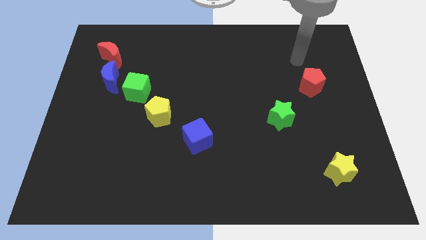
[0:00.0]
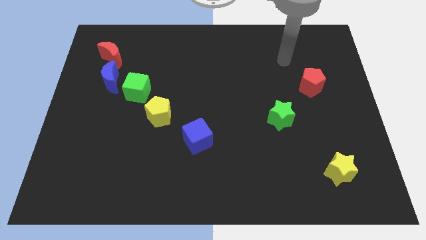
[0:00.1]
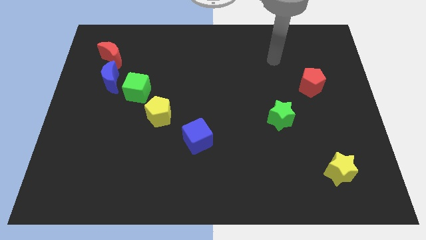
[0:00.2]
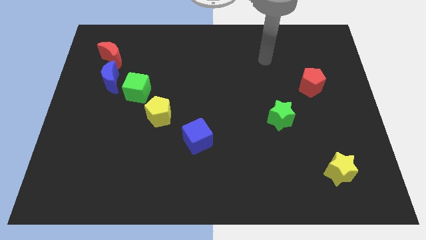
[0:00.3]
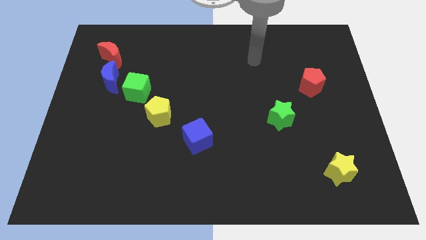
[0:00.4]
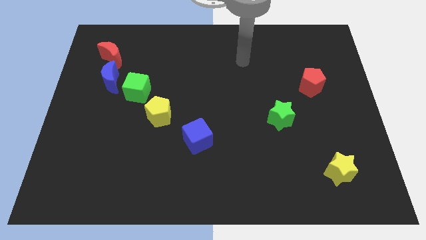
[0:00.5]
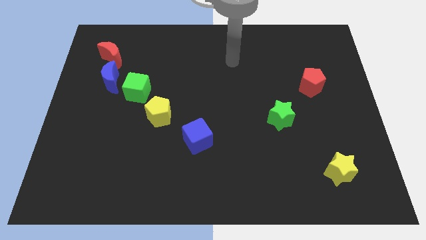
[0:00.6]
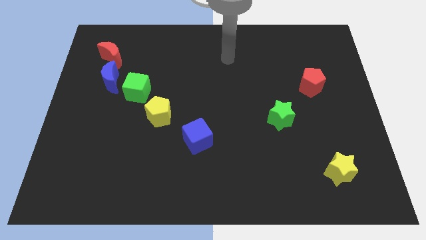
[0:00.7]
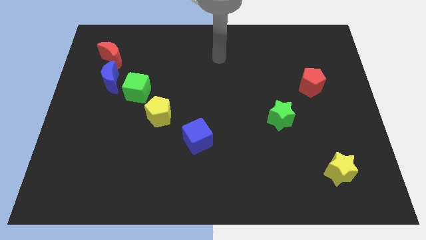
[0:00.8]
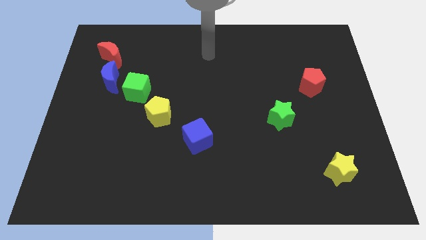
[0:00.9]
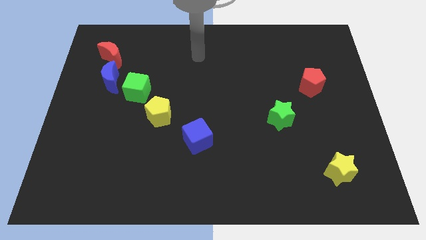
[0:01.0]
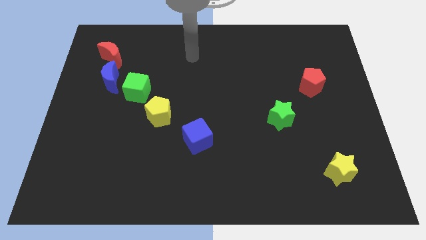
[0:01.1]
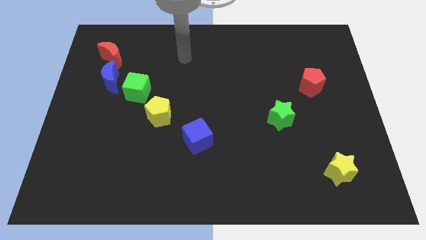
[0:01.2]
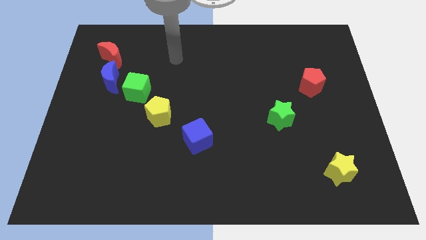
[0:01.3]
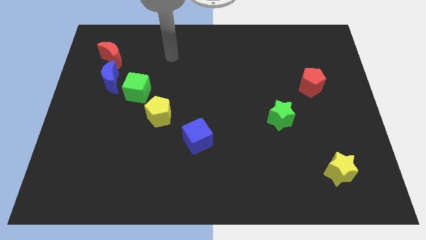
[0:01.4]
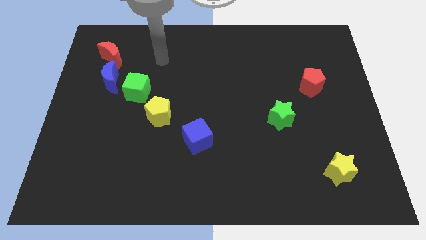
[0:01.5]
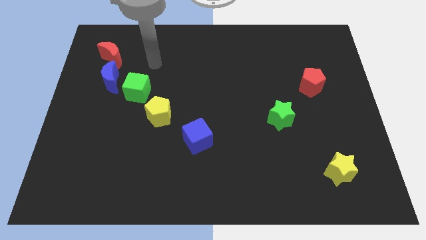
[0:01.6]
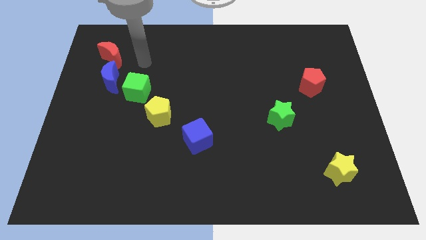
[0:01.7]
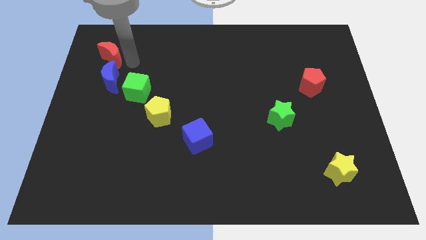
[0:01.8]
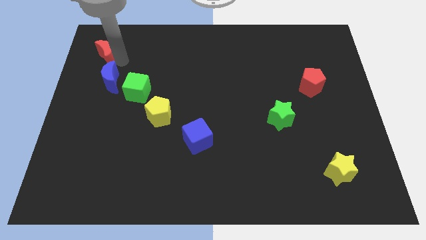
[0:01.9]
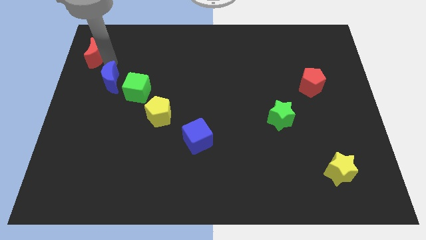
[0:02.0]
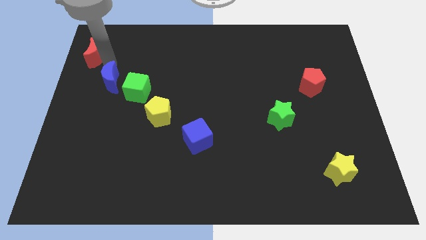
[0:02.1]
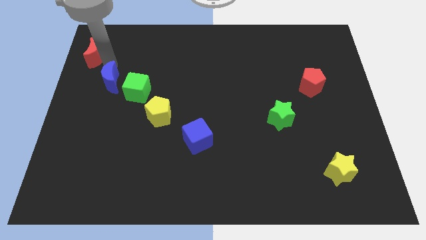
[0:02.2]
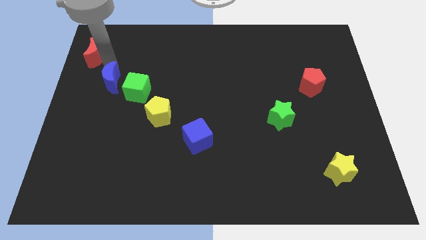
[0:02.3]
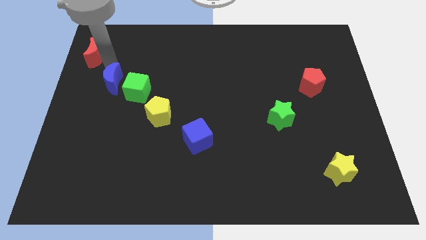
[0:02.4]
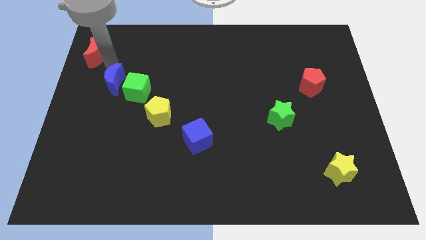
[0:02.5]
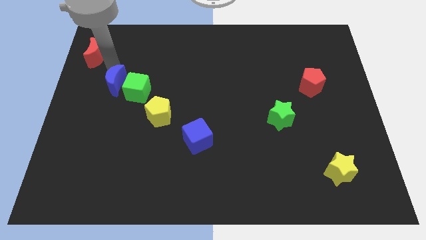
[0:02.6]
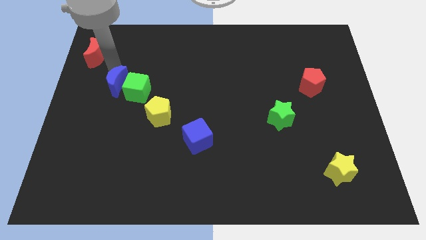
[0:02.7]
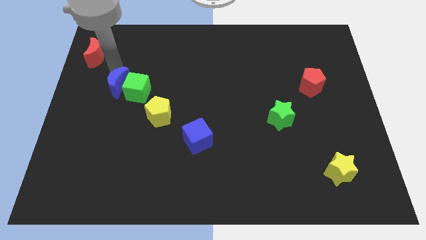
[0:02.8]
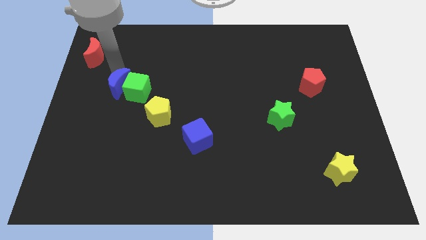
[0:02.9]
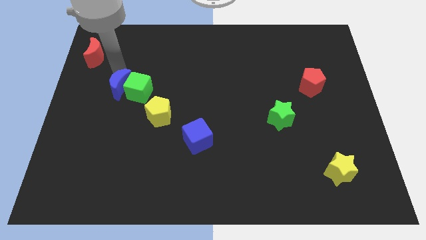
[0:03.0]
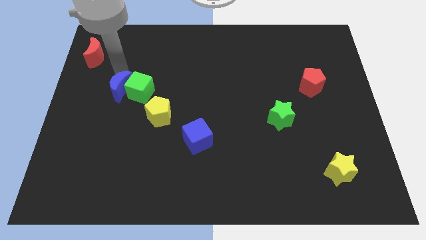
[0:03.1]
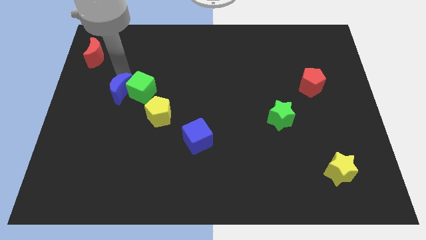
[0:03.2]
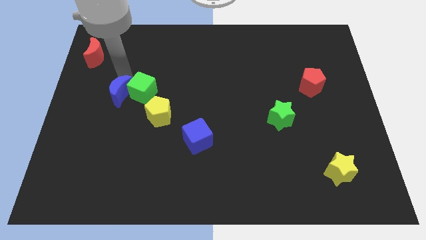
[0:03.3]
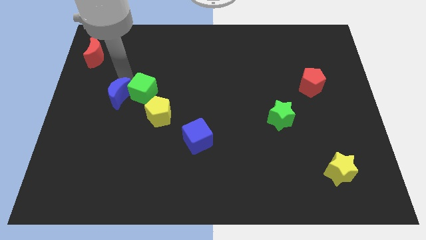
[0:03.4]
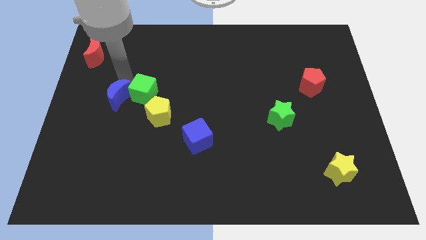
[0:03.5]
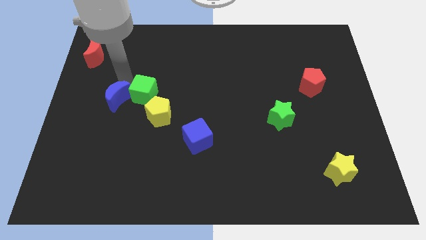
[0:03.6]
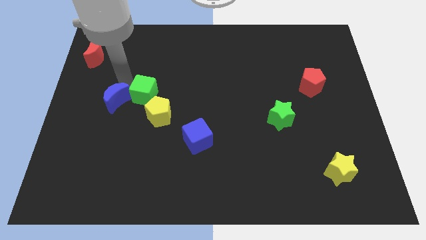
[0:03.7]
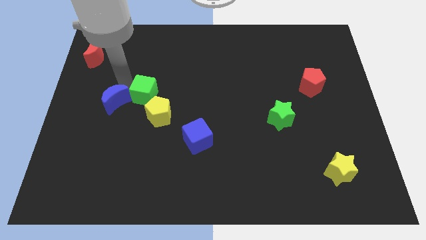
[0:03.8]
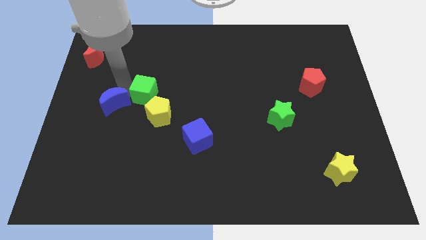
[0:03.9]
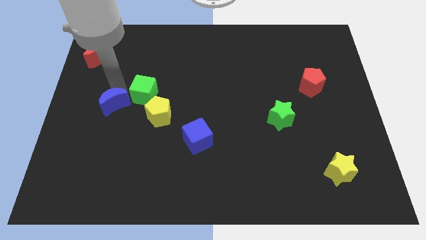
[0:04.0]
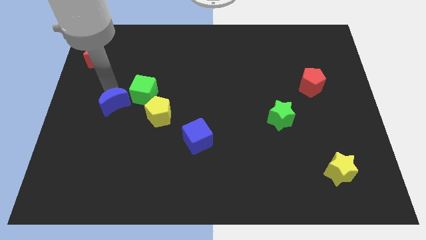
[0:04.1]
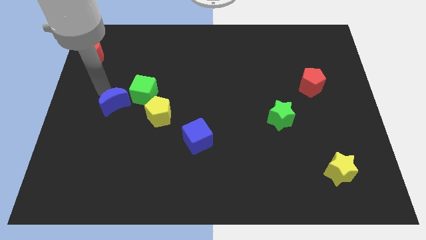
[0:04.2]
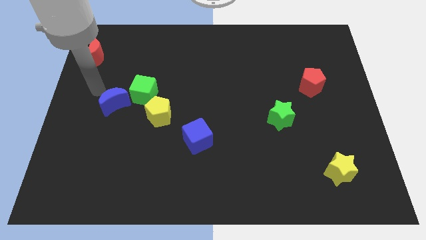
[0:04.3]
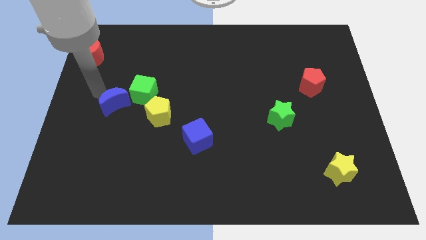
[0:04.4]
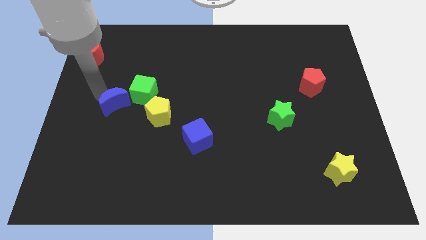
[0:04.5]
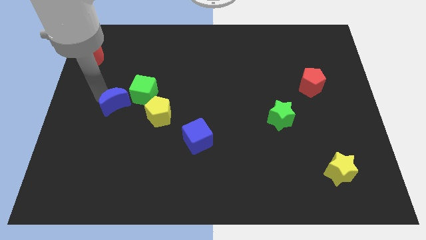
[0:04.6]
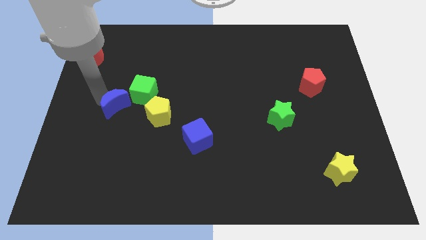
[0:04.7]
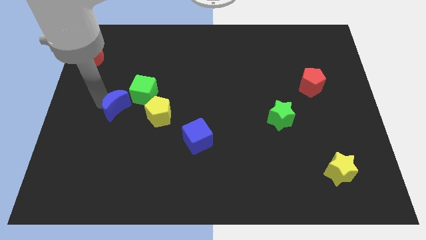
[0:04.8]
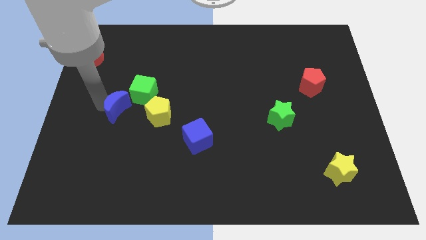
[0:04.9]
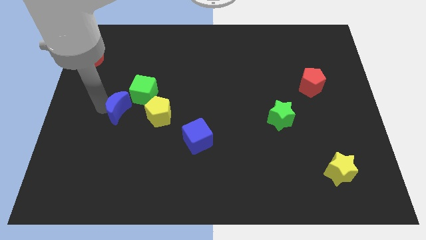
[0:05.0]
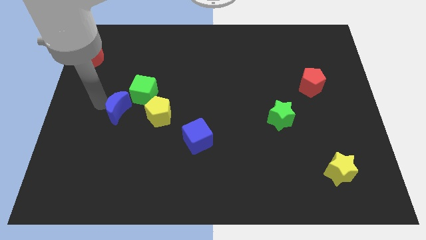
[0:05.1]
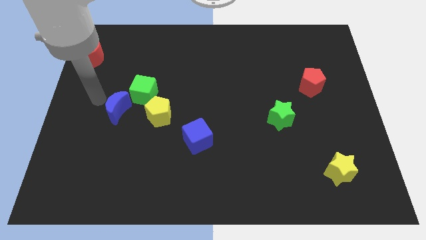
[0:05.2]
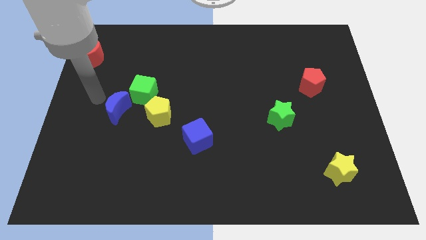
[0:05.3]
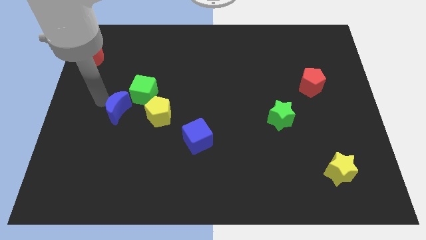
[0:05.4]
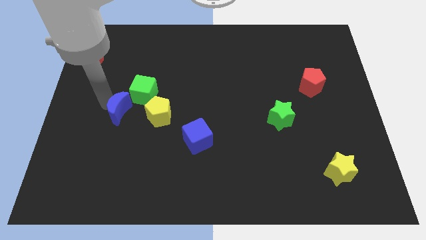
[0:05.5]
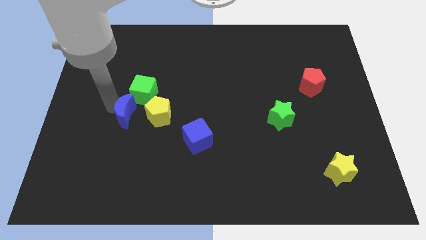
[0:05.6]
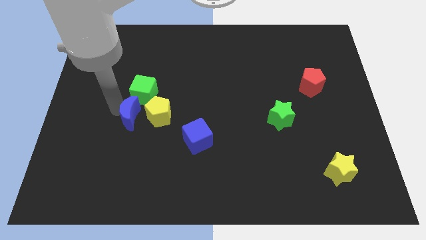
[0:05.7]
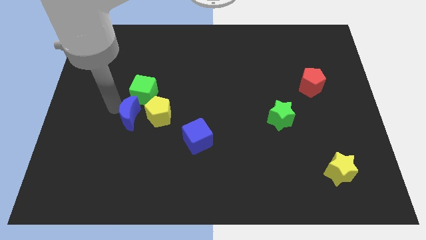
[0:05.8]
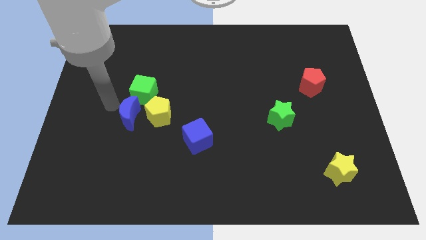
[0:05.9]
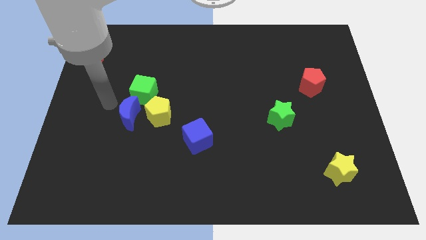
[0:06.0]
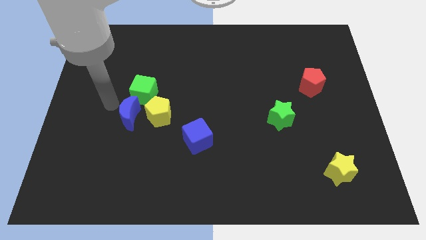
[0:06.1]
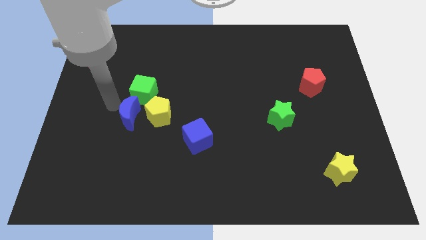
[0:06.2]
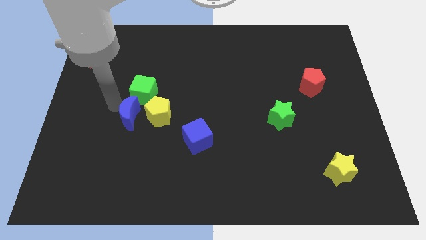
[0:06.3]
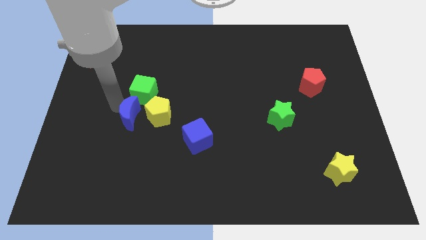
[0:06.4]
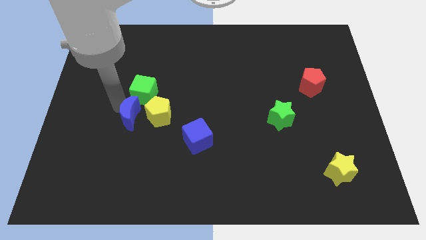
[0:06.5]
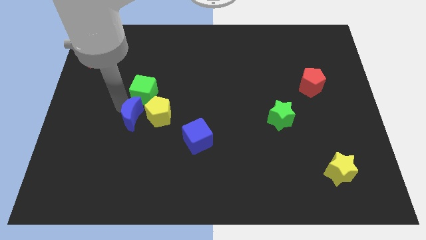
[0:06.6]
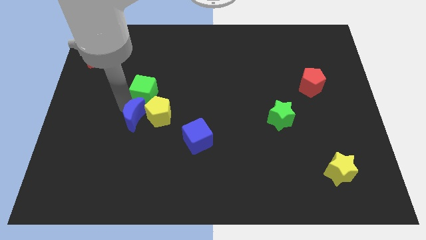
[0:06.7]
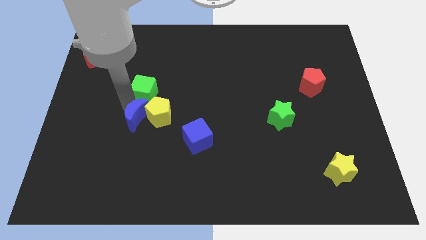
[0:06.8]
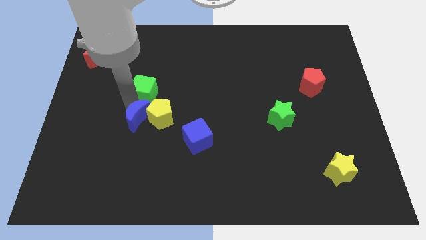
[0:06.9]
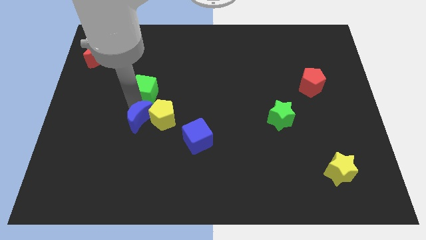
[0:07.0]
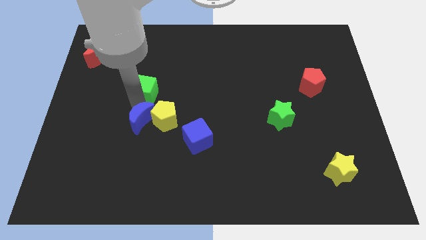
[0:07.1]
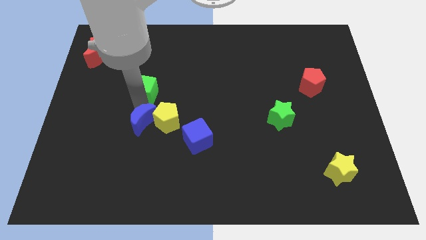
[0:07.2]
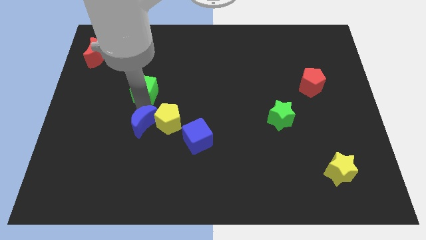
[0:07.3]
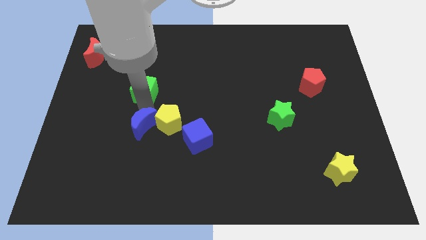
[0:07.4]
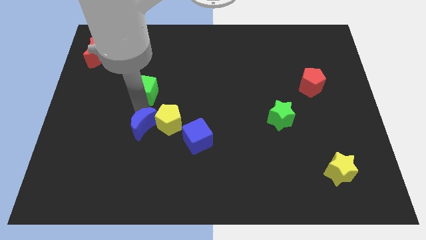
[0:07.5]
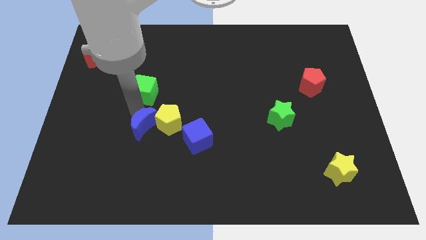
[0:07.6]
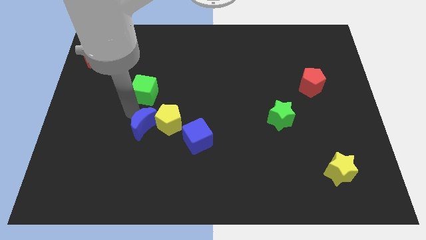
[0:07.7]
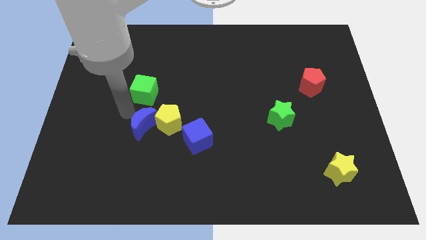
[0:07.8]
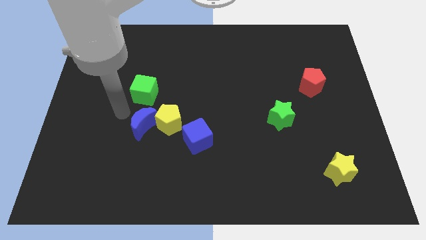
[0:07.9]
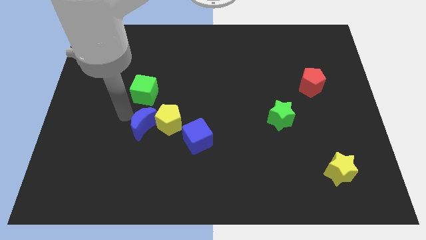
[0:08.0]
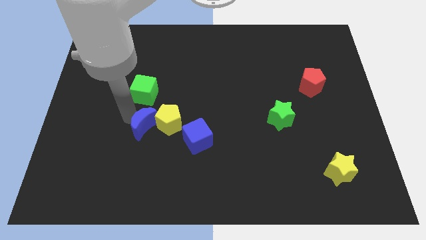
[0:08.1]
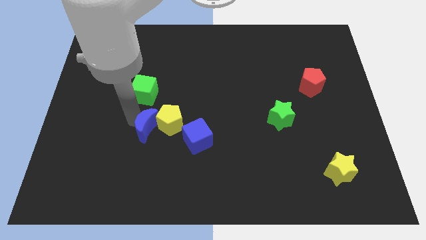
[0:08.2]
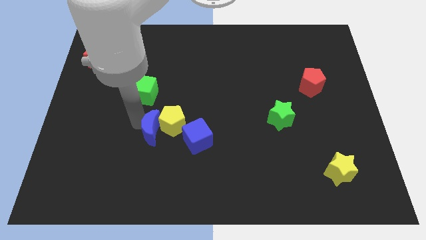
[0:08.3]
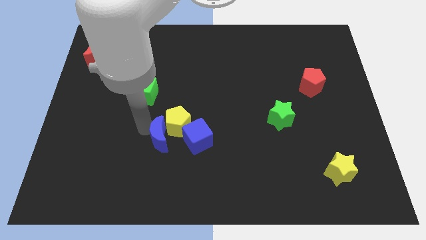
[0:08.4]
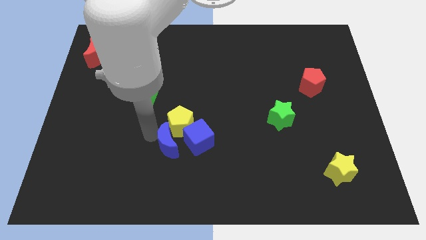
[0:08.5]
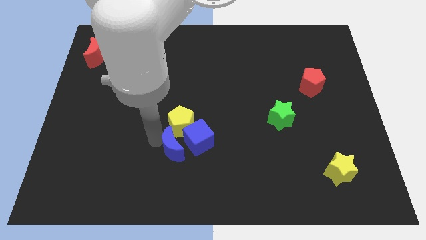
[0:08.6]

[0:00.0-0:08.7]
put the blue moon next to the blue cube
